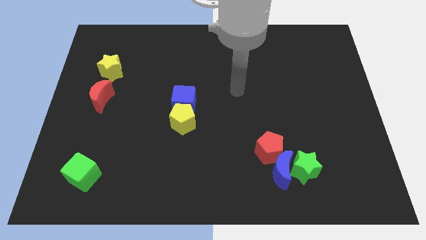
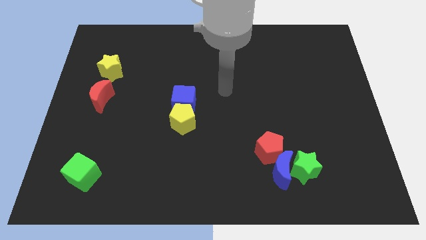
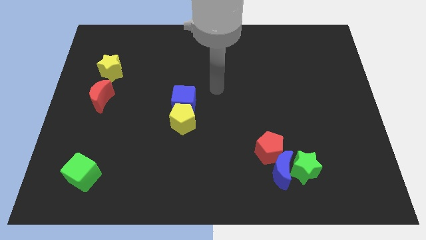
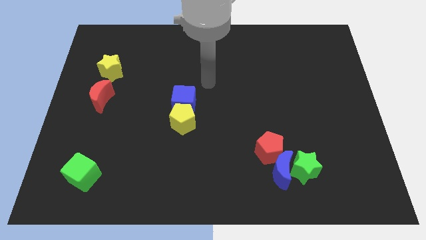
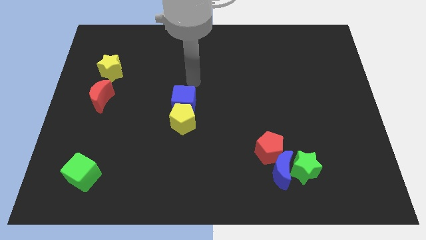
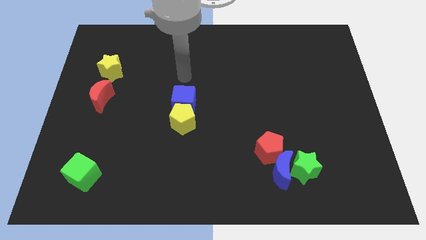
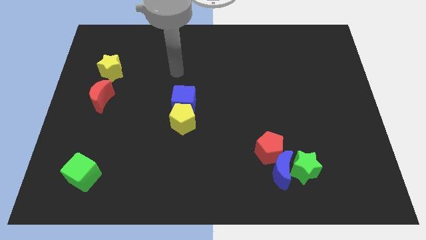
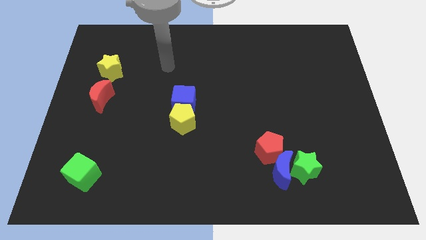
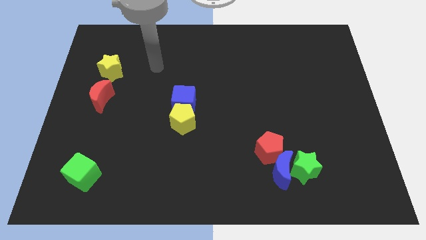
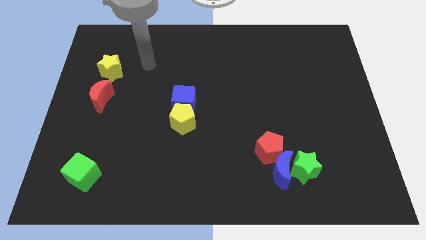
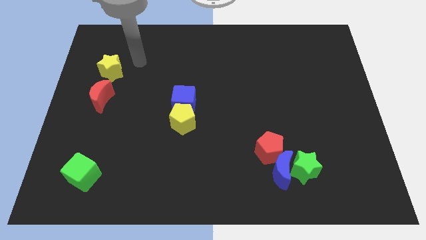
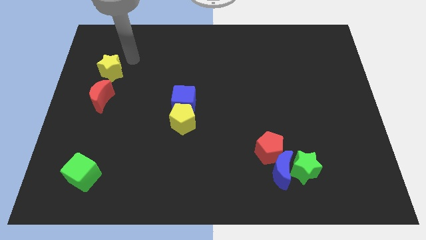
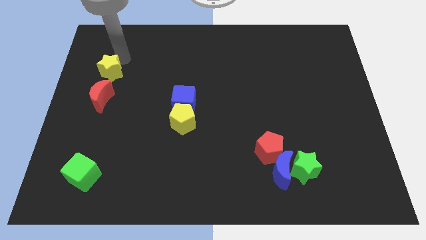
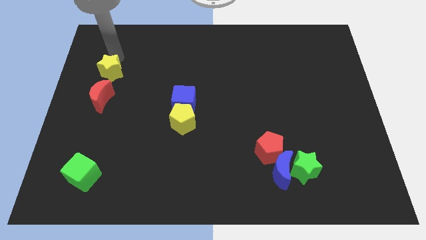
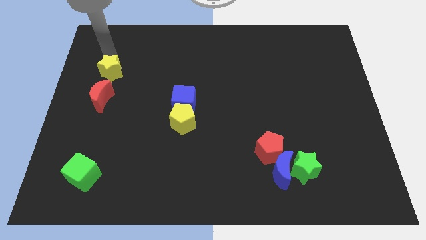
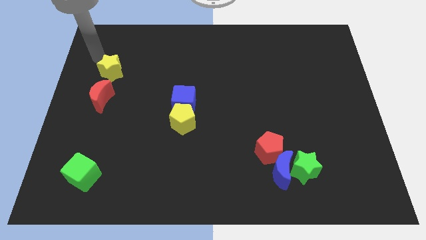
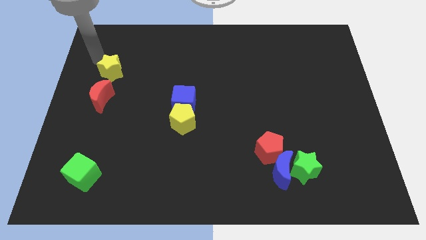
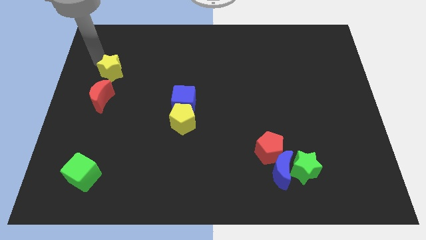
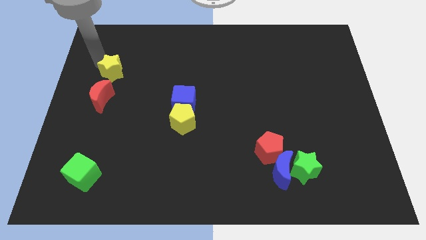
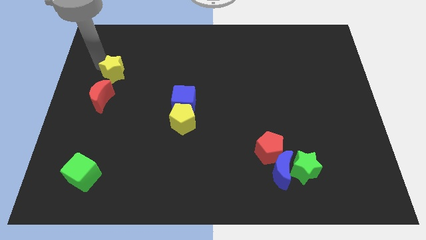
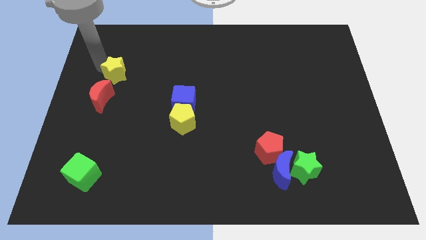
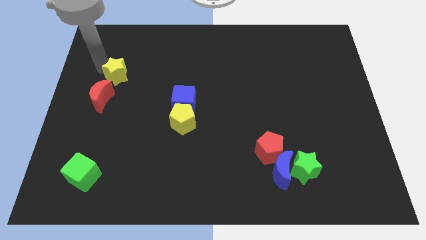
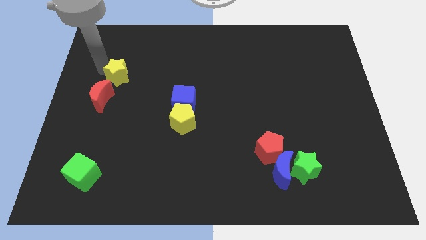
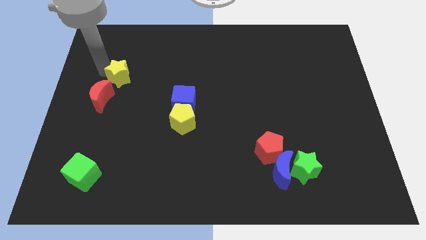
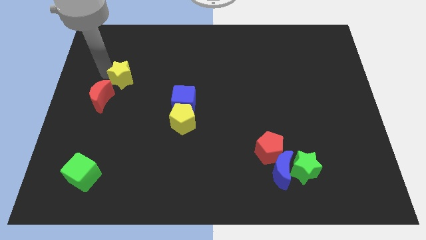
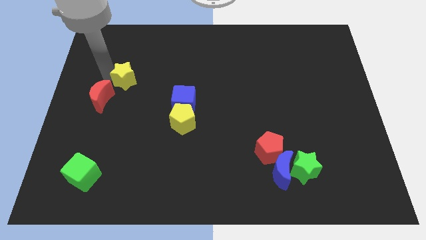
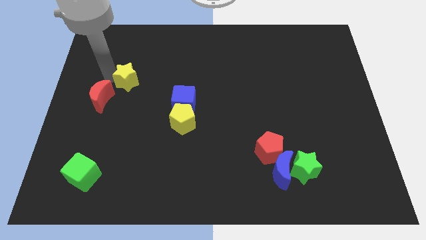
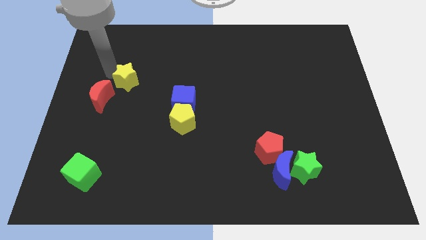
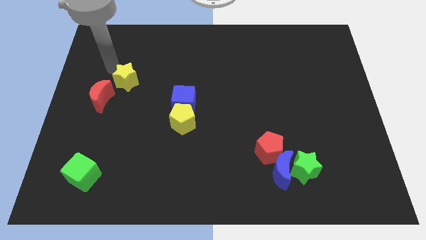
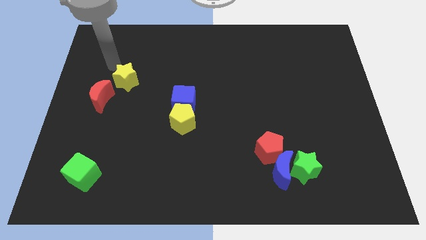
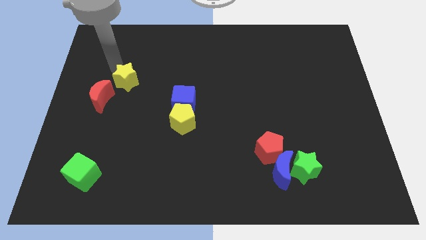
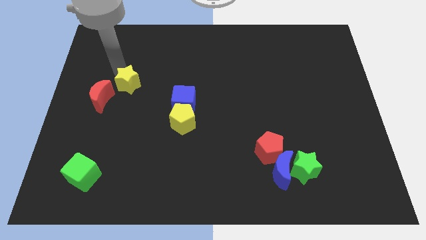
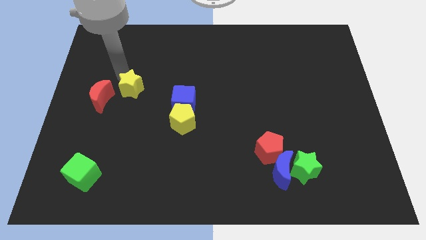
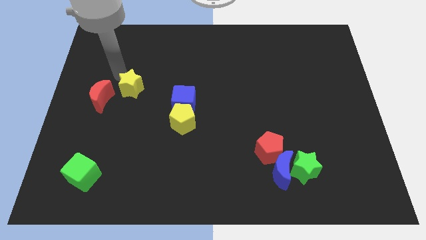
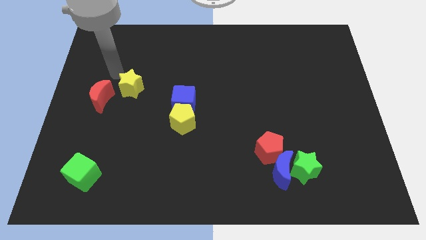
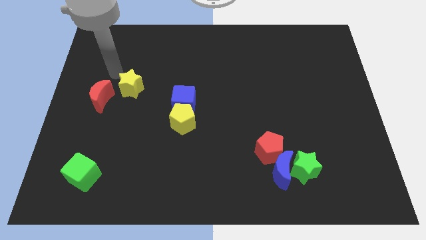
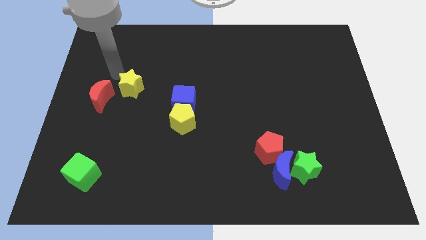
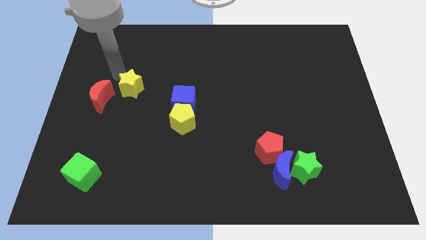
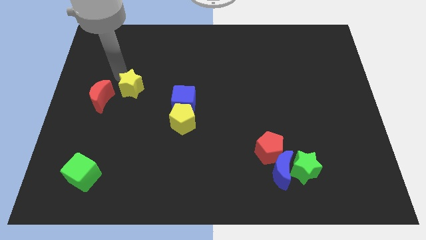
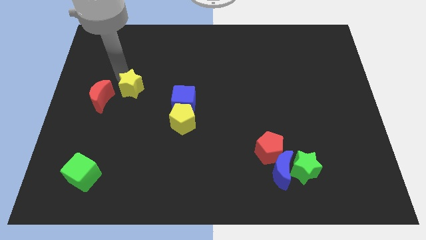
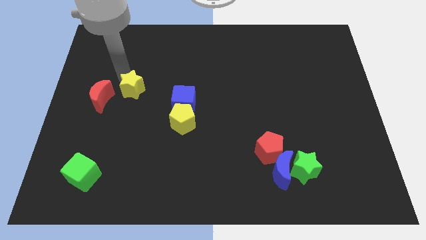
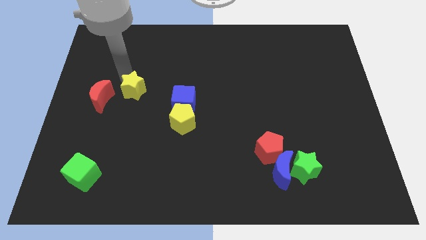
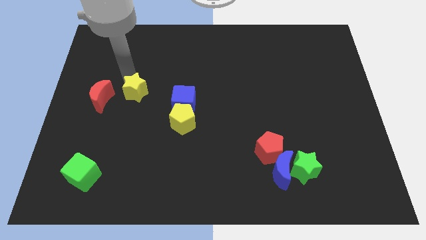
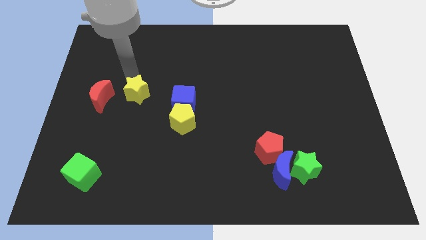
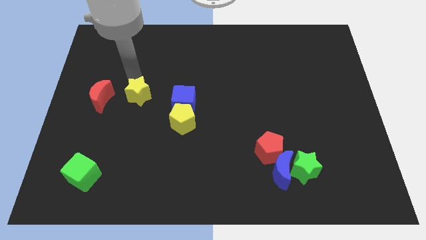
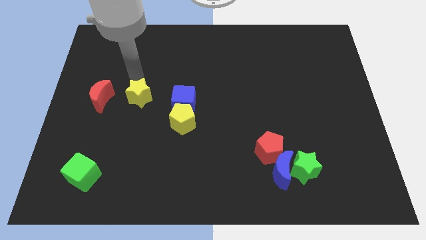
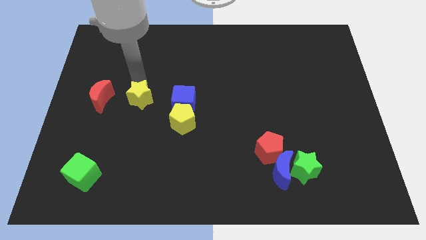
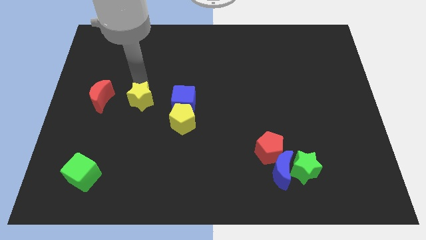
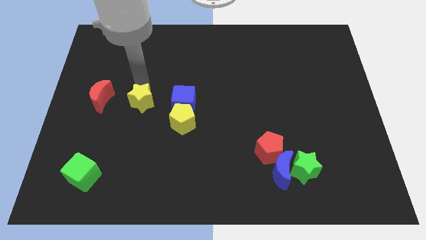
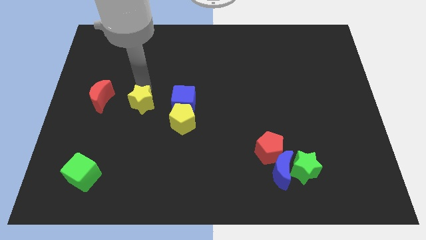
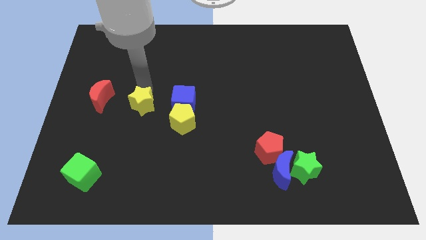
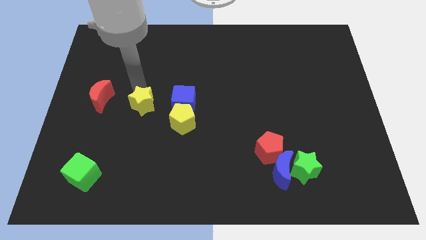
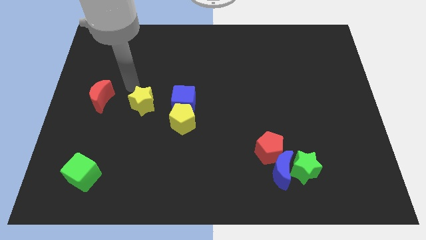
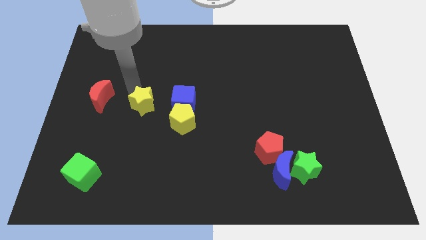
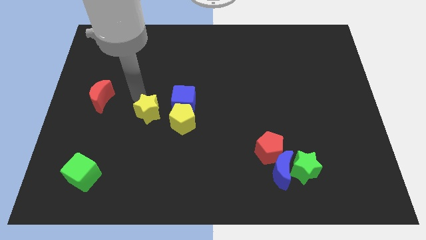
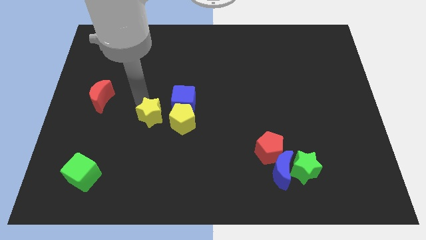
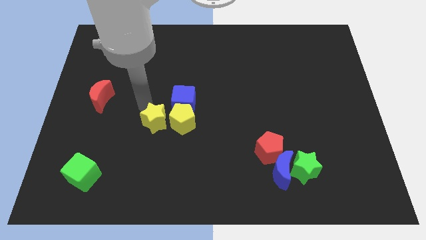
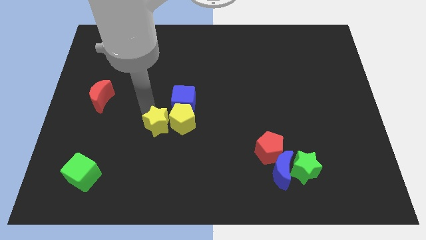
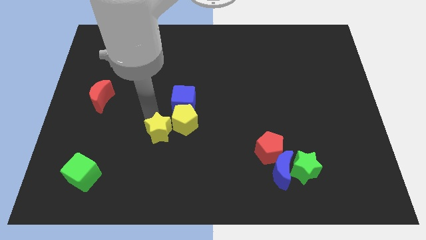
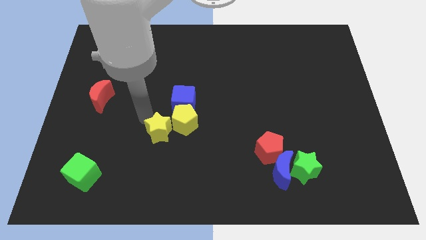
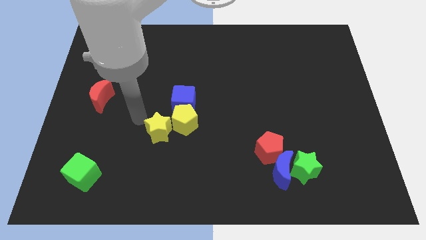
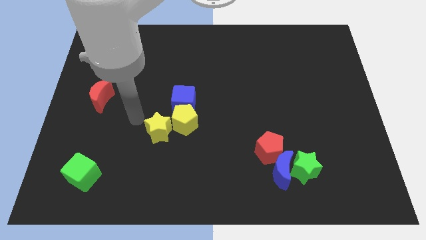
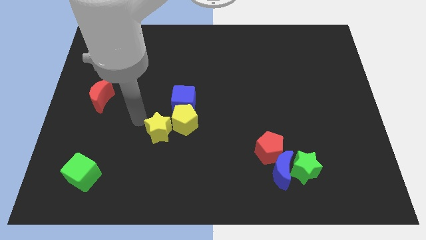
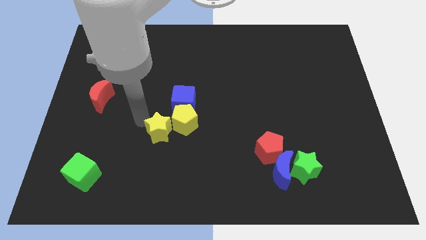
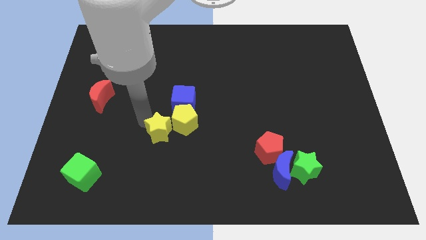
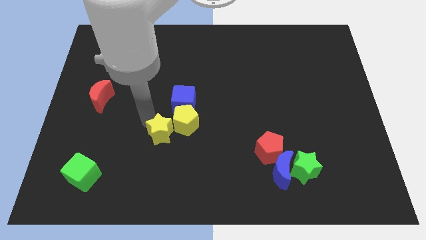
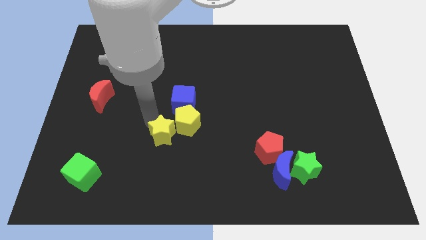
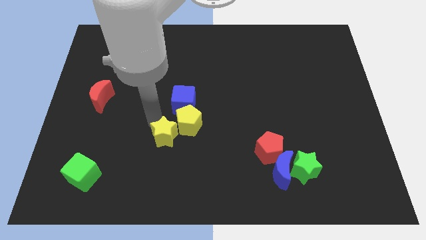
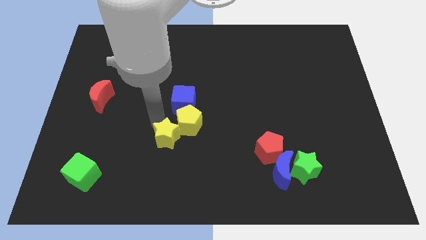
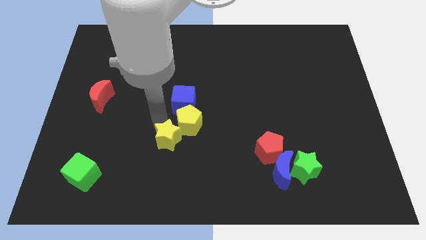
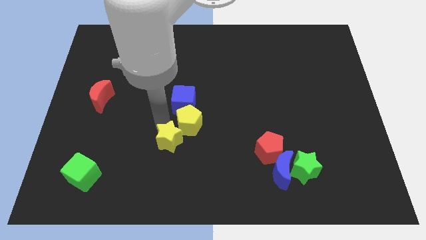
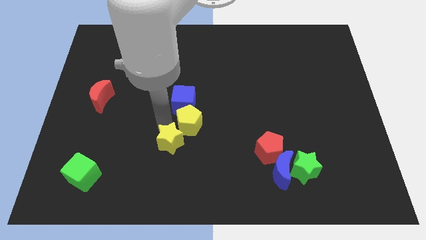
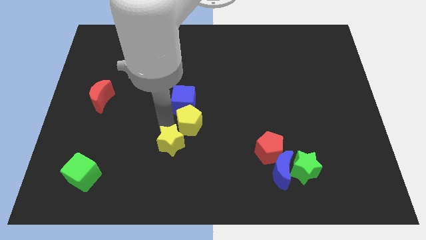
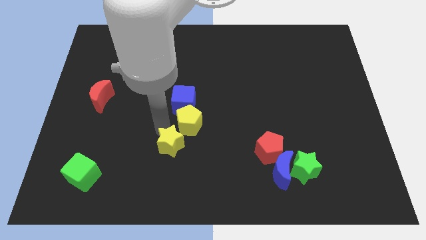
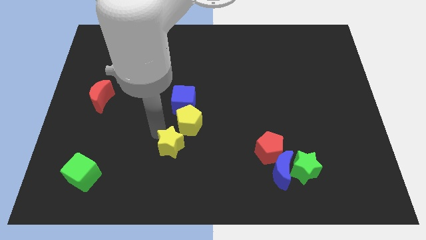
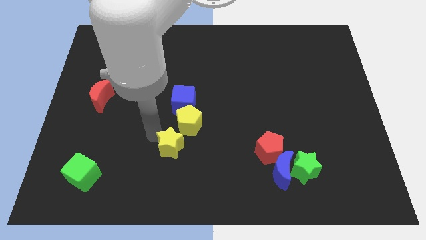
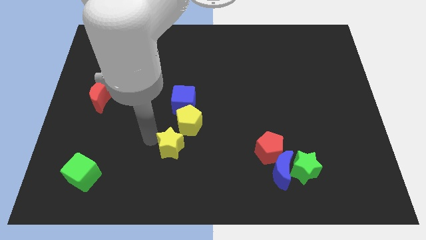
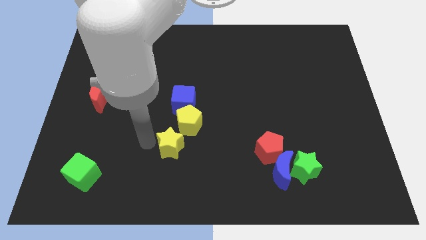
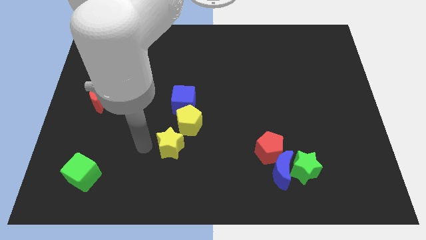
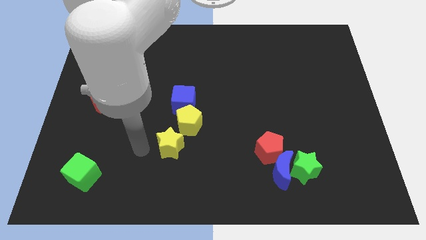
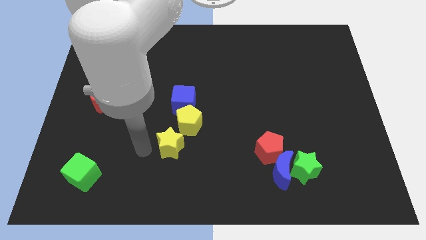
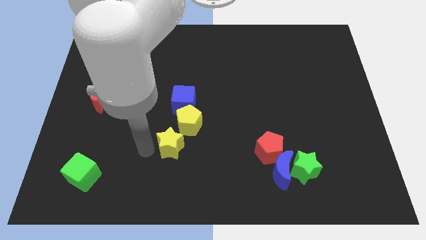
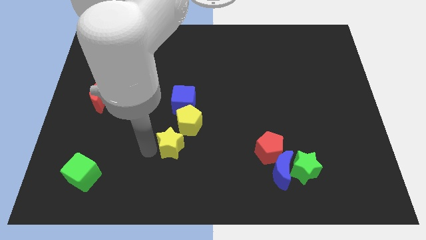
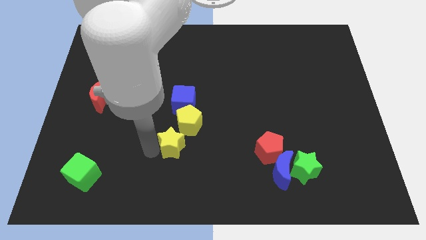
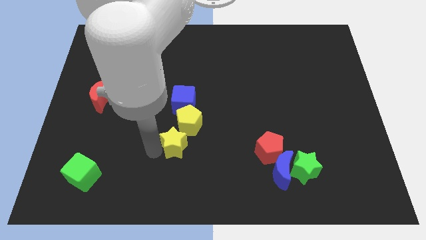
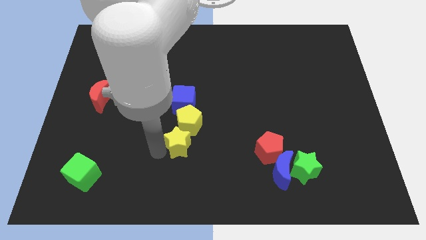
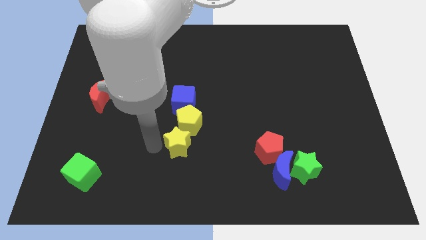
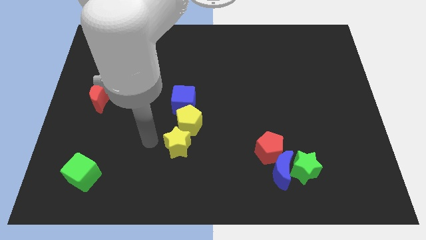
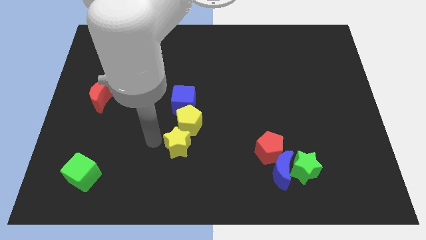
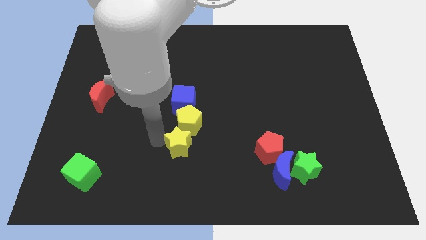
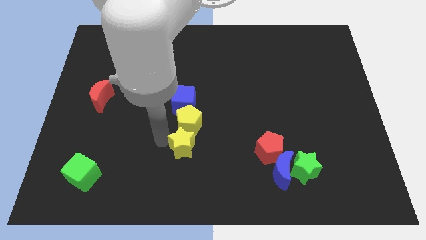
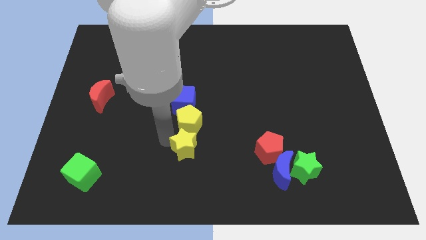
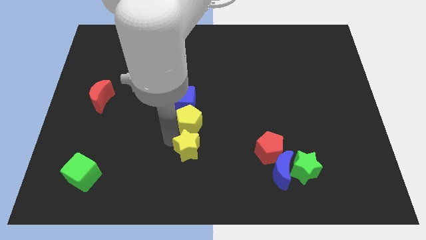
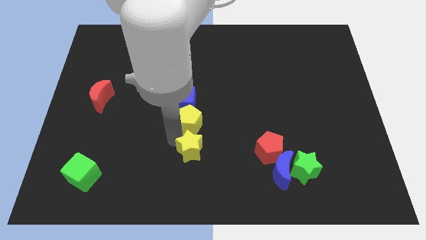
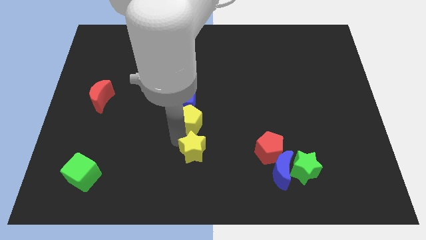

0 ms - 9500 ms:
slide the yellow star to the left side of the red pentagon
